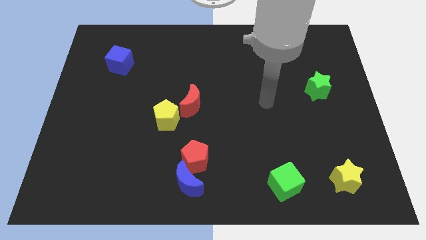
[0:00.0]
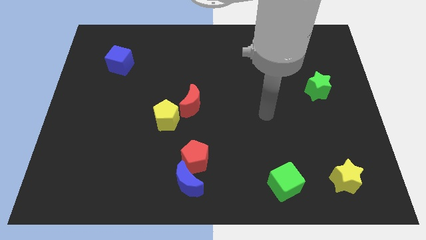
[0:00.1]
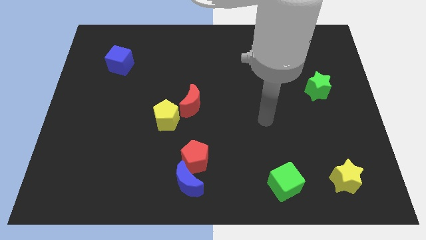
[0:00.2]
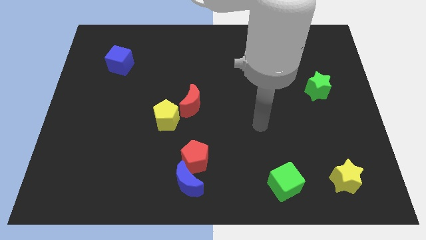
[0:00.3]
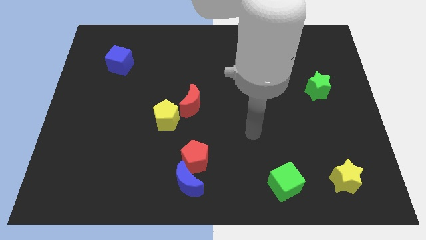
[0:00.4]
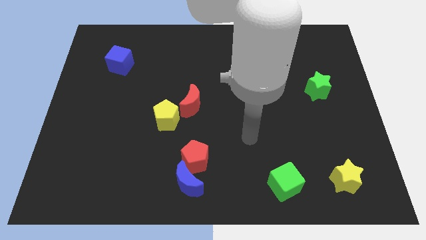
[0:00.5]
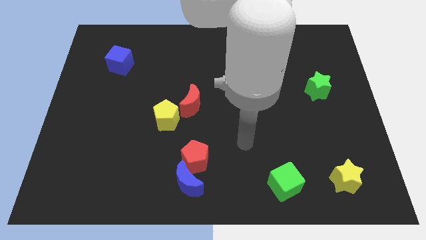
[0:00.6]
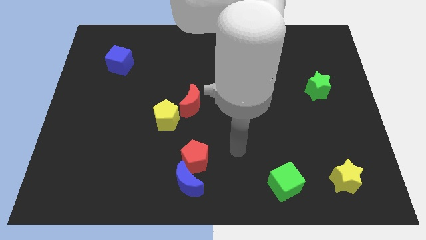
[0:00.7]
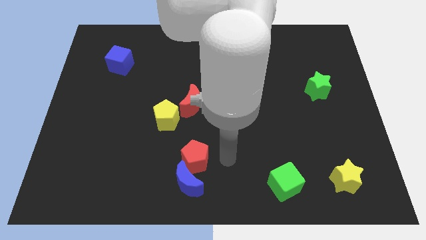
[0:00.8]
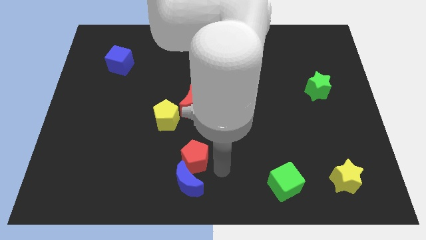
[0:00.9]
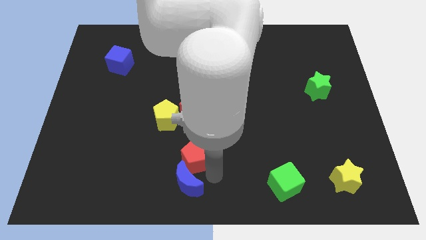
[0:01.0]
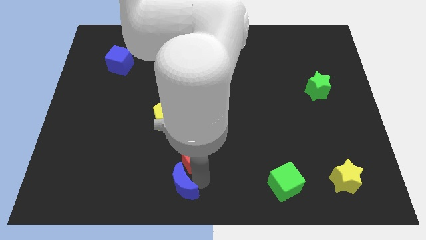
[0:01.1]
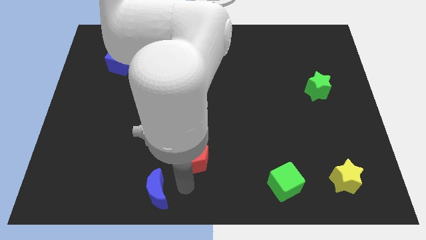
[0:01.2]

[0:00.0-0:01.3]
separate the red pentagon from the blue moon

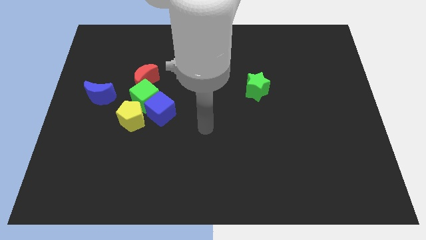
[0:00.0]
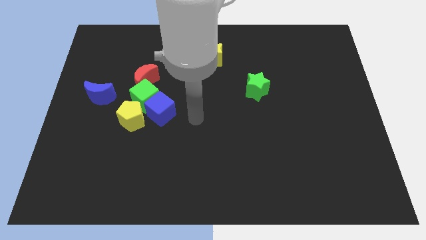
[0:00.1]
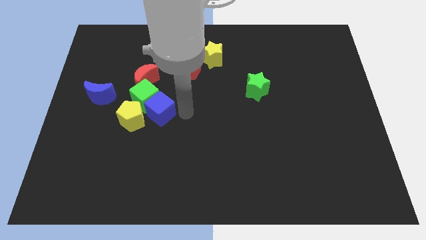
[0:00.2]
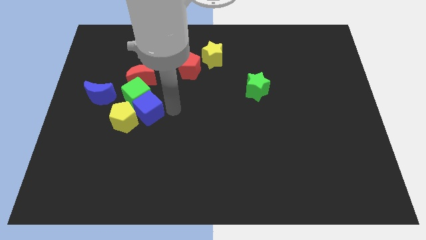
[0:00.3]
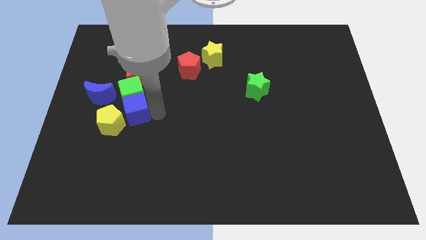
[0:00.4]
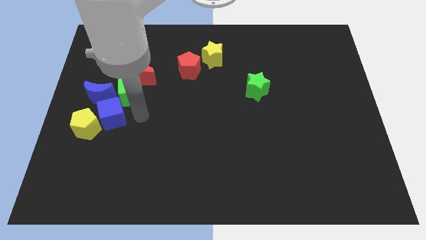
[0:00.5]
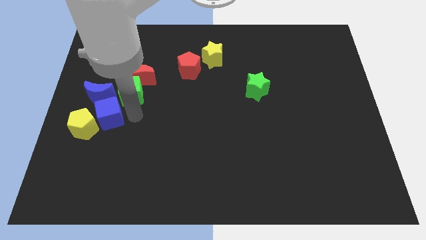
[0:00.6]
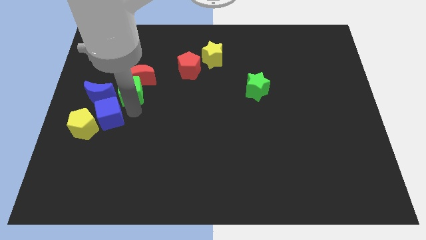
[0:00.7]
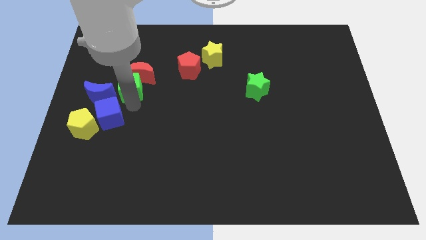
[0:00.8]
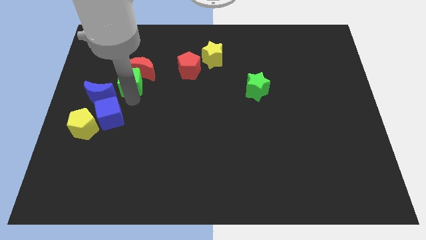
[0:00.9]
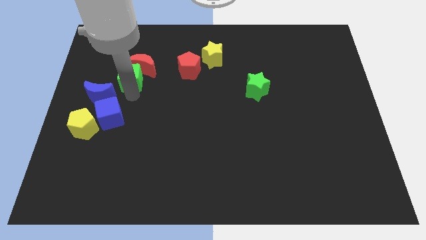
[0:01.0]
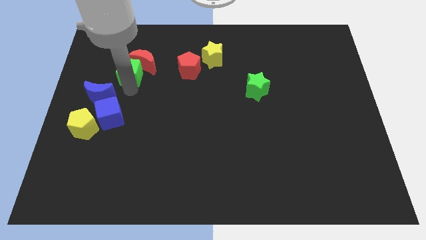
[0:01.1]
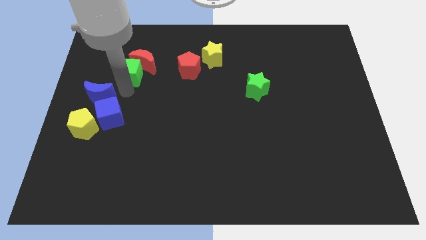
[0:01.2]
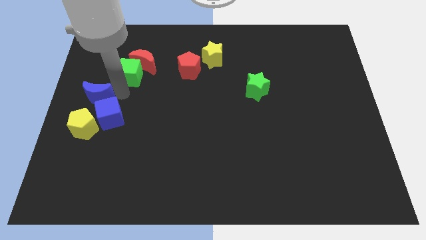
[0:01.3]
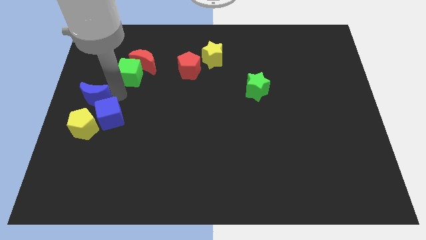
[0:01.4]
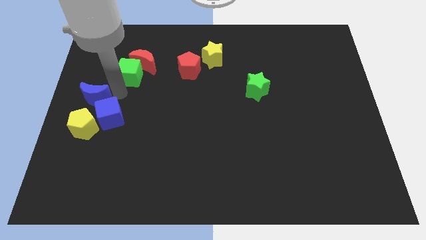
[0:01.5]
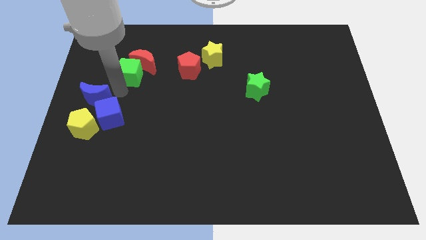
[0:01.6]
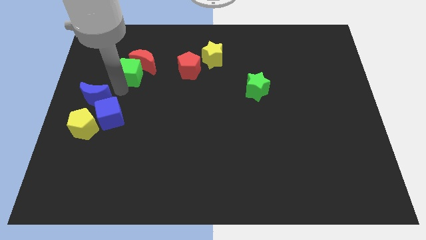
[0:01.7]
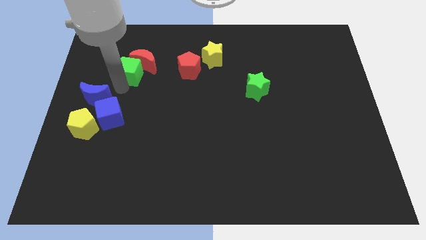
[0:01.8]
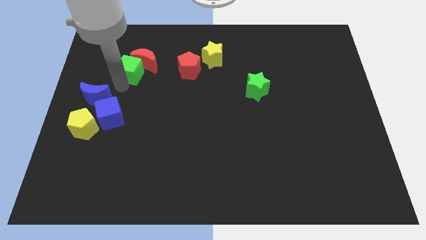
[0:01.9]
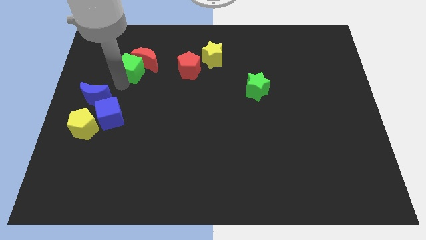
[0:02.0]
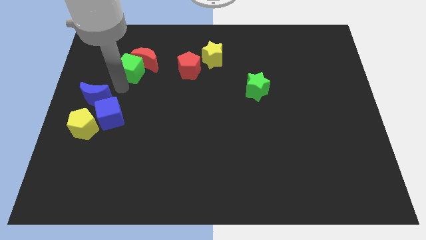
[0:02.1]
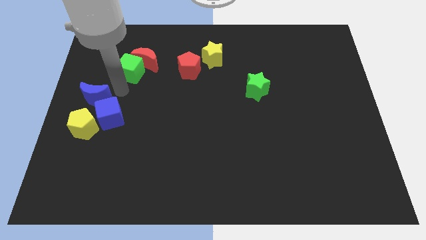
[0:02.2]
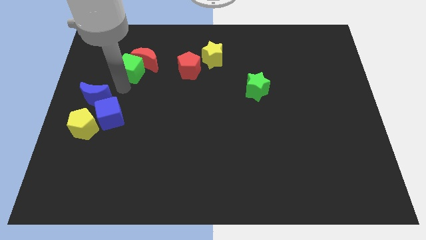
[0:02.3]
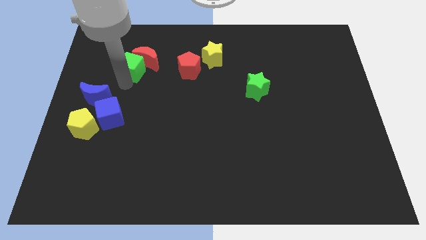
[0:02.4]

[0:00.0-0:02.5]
separate the green cube from the blue cube, red moon, and yellow pentagon

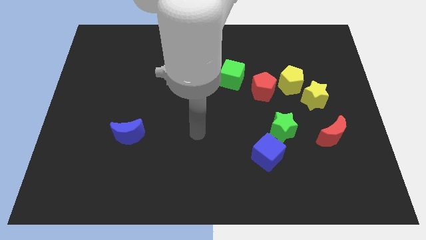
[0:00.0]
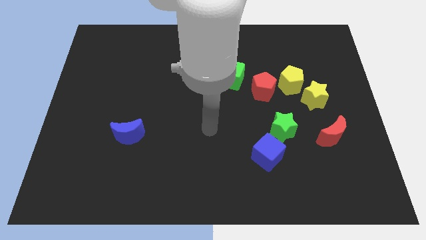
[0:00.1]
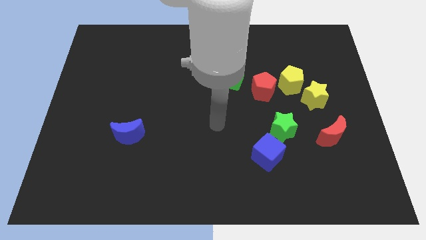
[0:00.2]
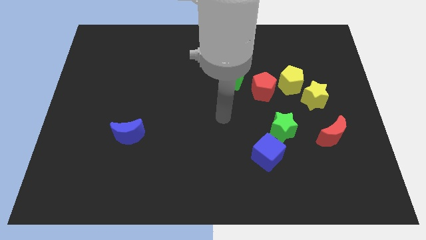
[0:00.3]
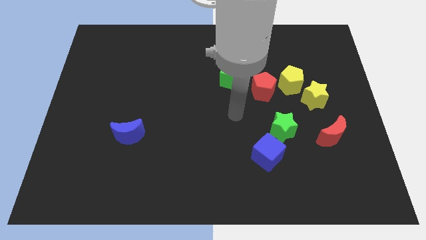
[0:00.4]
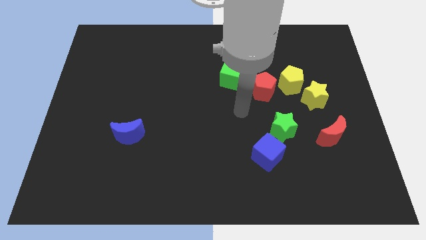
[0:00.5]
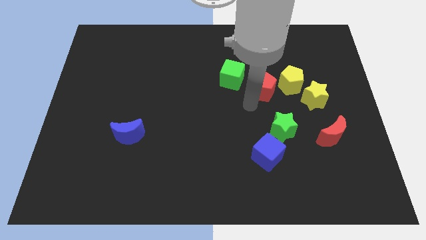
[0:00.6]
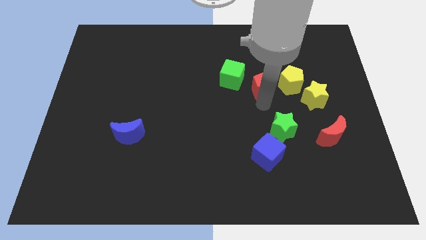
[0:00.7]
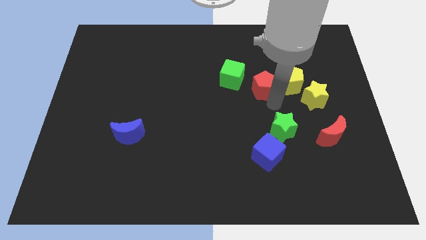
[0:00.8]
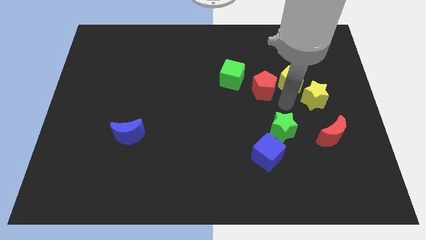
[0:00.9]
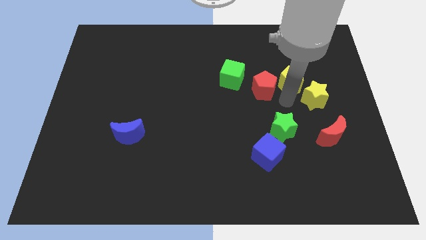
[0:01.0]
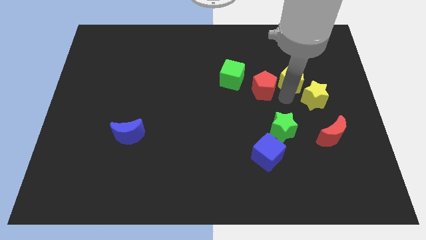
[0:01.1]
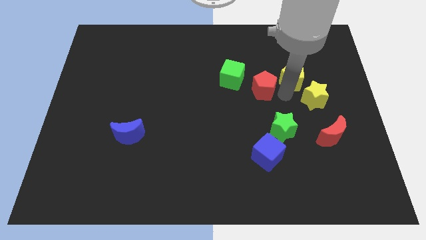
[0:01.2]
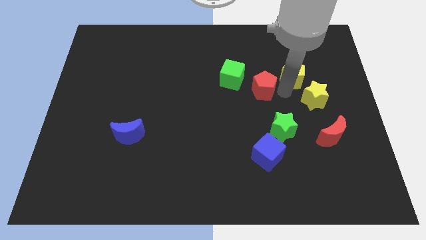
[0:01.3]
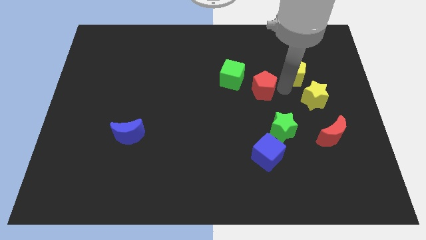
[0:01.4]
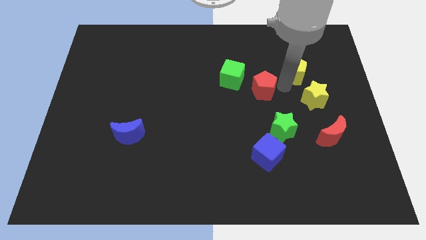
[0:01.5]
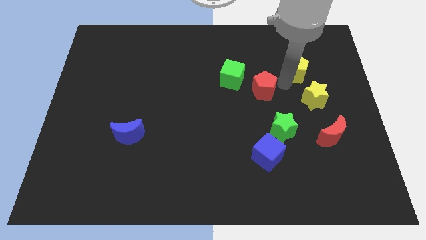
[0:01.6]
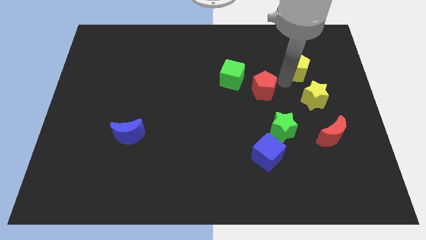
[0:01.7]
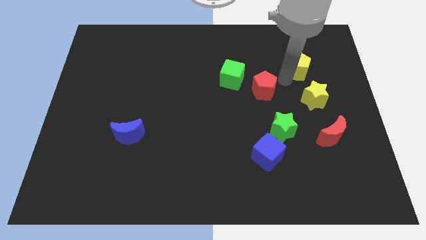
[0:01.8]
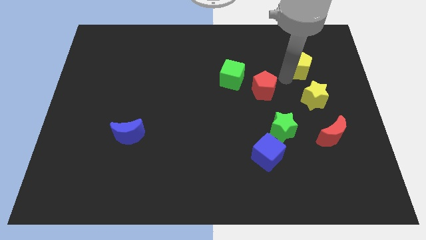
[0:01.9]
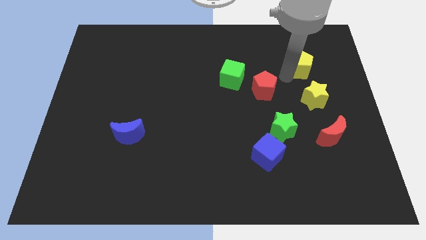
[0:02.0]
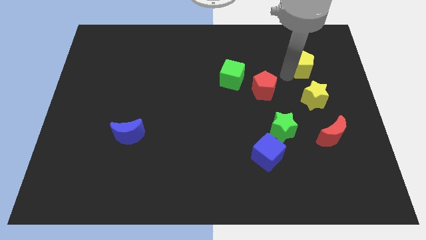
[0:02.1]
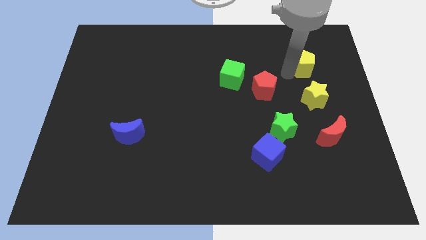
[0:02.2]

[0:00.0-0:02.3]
separate the yellow pentagon from the red pentagon and yellow star

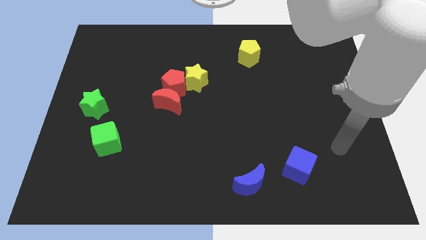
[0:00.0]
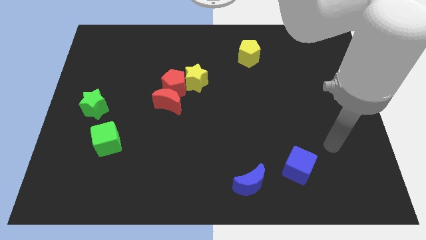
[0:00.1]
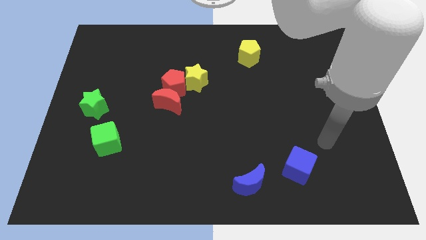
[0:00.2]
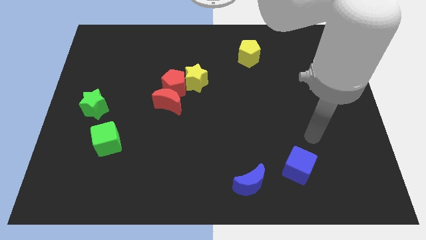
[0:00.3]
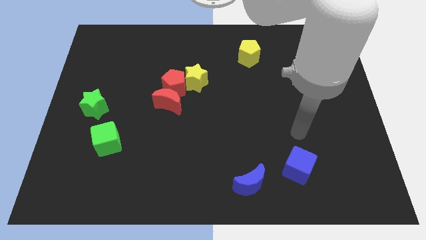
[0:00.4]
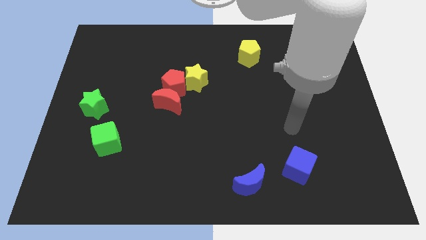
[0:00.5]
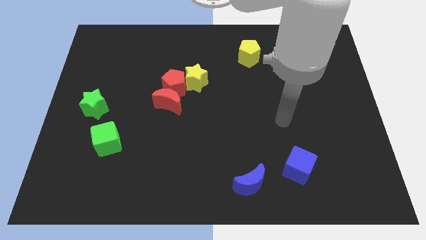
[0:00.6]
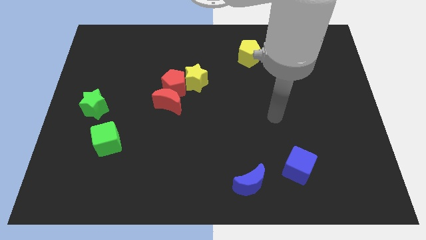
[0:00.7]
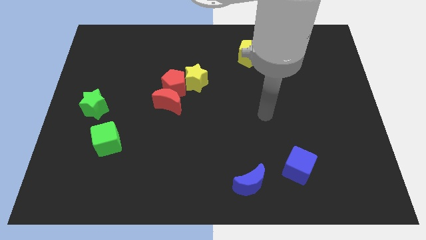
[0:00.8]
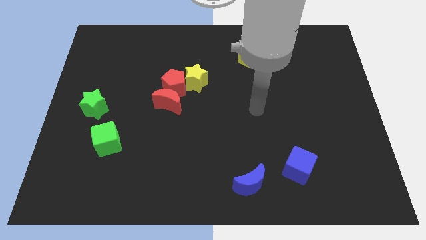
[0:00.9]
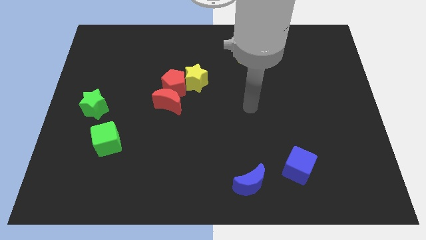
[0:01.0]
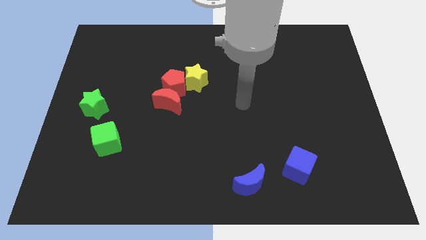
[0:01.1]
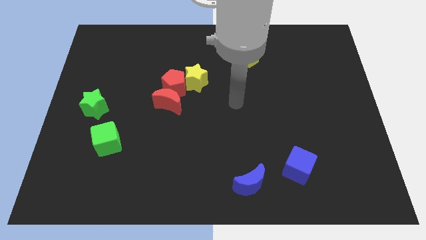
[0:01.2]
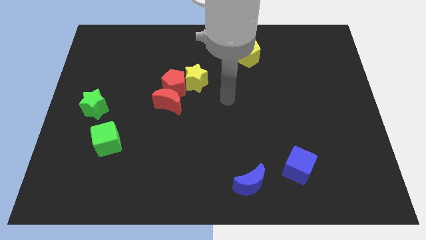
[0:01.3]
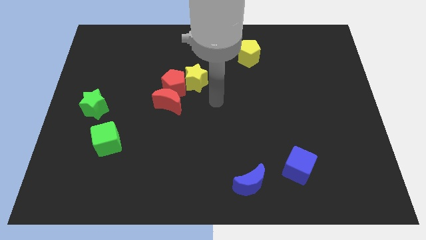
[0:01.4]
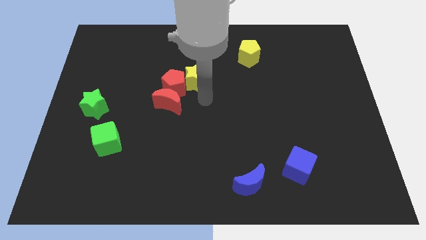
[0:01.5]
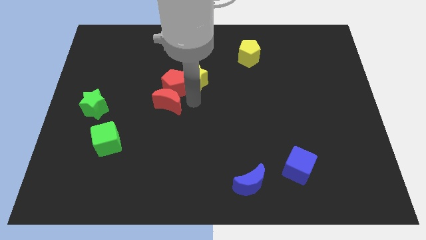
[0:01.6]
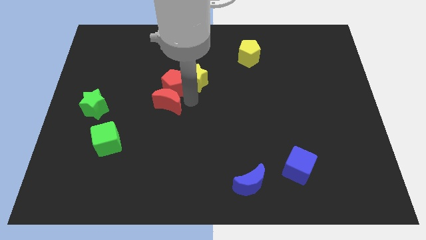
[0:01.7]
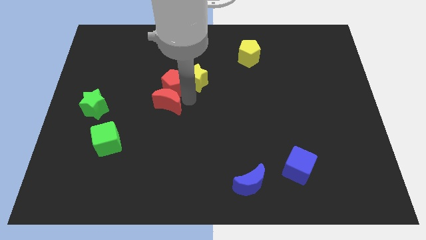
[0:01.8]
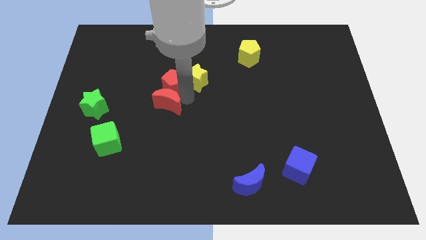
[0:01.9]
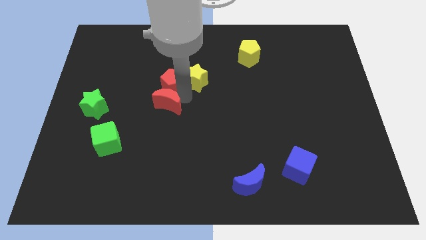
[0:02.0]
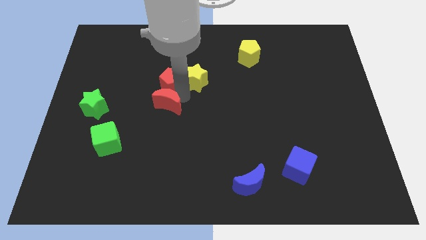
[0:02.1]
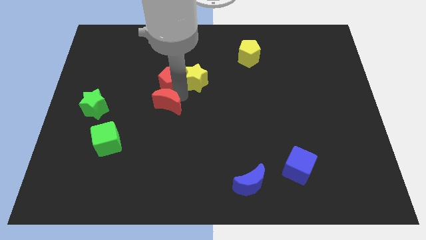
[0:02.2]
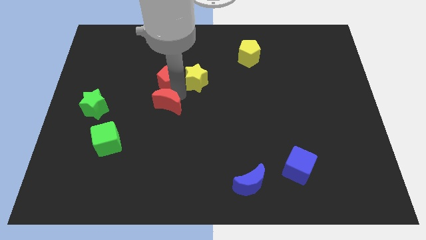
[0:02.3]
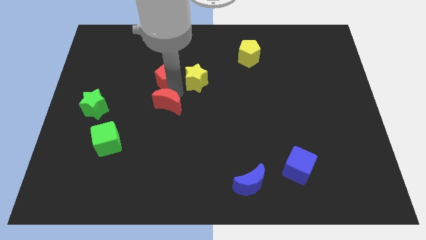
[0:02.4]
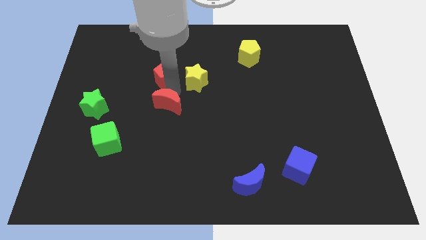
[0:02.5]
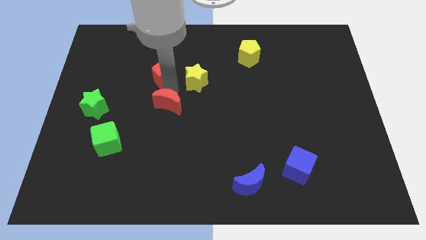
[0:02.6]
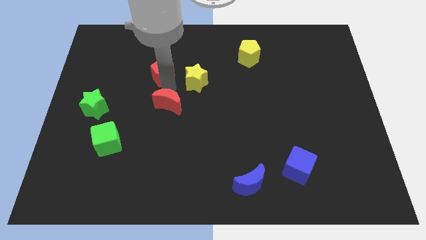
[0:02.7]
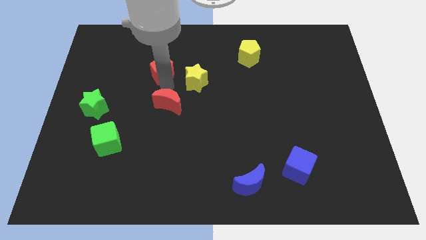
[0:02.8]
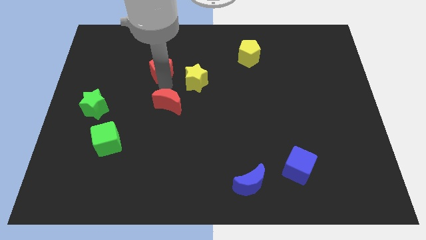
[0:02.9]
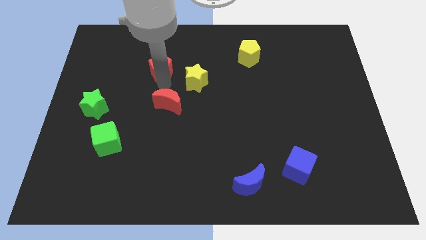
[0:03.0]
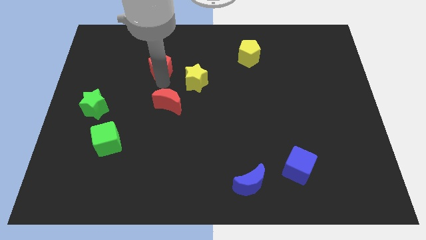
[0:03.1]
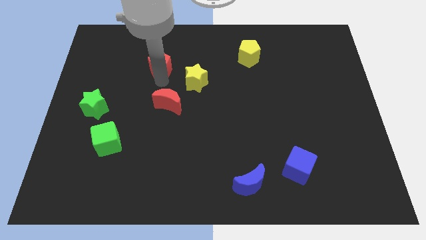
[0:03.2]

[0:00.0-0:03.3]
pull the red pentagon apart from the yellow star and red moon
